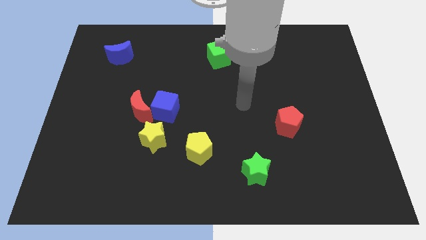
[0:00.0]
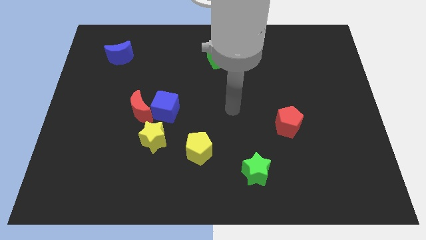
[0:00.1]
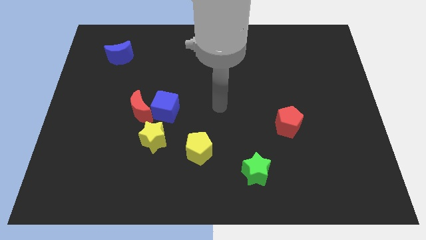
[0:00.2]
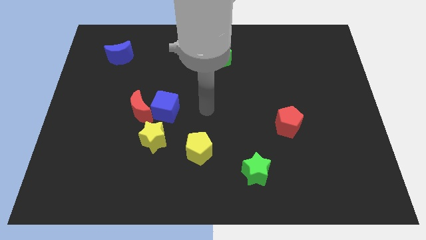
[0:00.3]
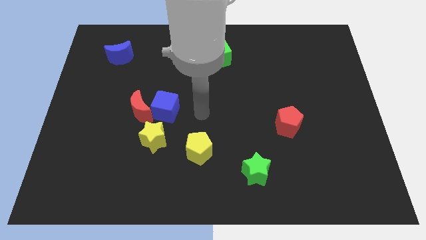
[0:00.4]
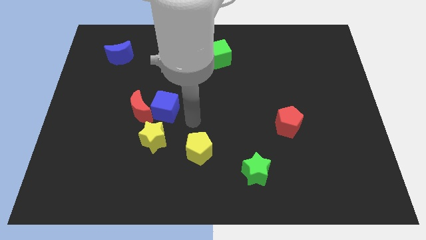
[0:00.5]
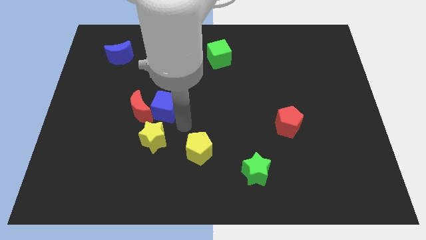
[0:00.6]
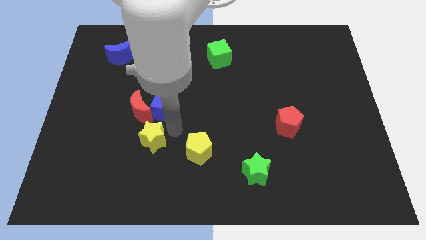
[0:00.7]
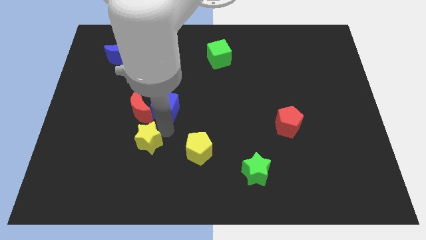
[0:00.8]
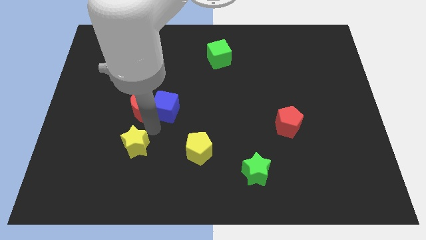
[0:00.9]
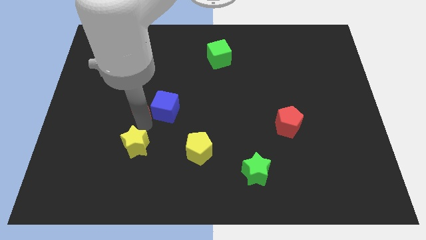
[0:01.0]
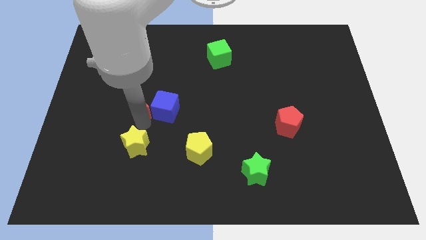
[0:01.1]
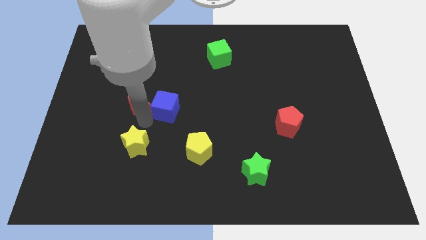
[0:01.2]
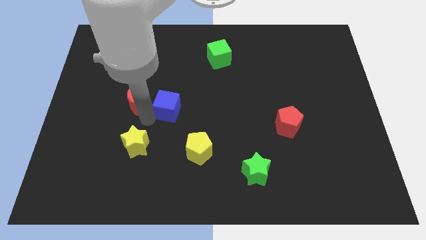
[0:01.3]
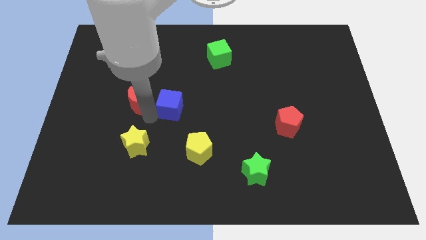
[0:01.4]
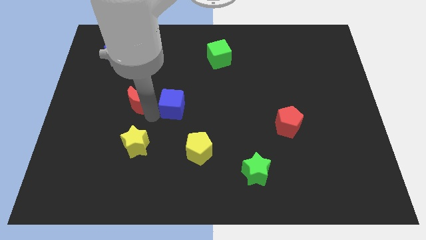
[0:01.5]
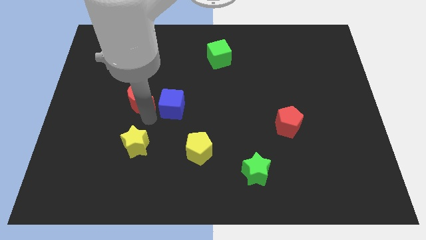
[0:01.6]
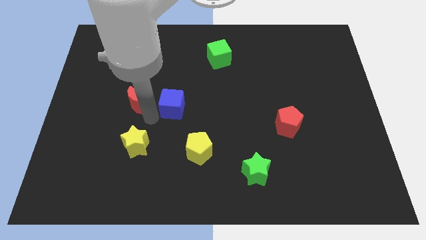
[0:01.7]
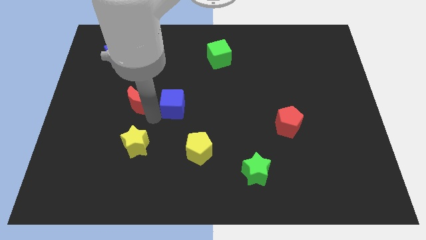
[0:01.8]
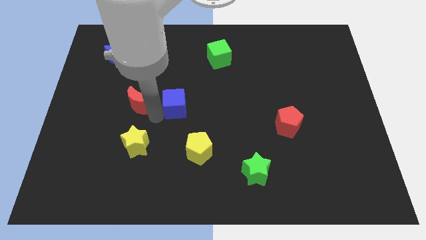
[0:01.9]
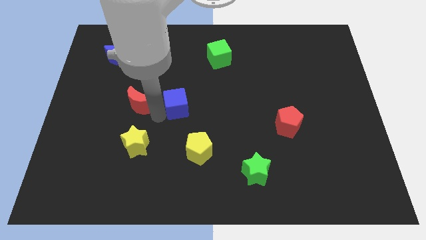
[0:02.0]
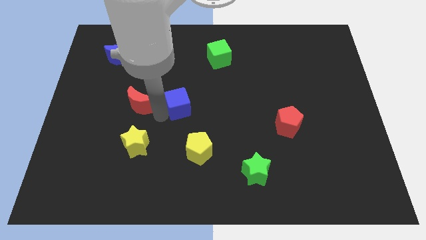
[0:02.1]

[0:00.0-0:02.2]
move the blue cube away from the red moon and yellow star

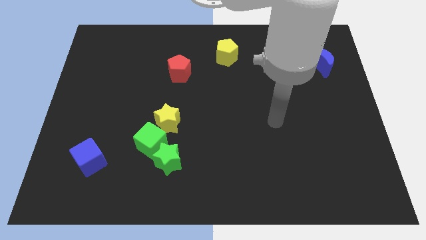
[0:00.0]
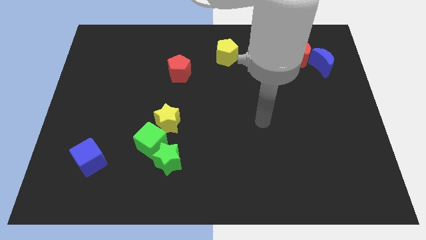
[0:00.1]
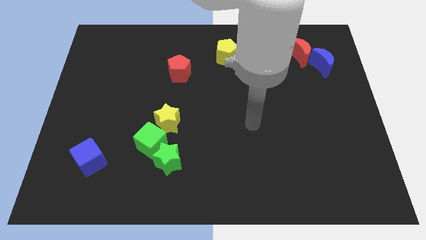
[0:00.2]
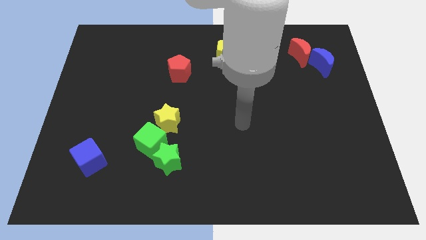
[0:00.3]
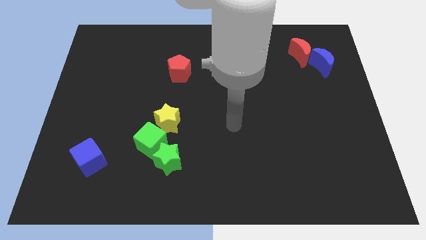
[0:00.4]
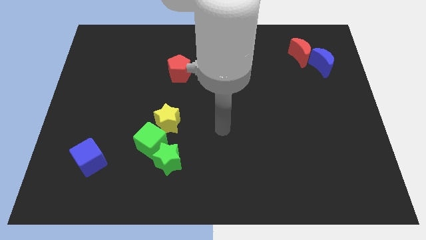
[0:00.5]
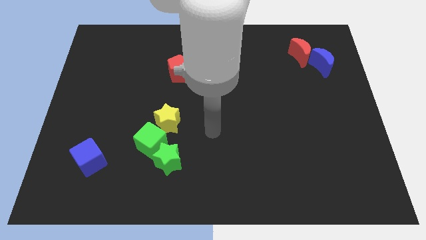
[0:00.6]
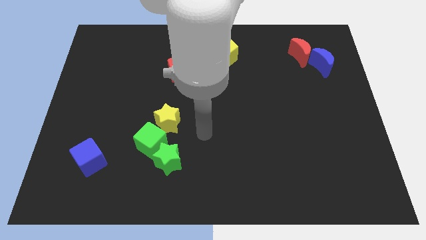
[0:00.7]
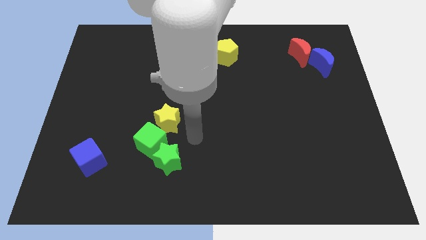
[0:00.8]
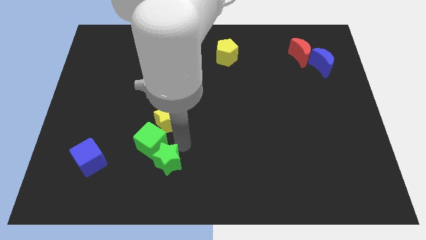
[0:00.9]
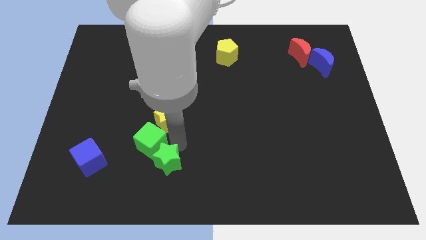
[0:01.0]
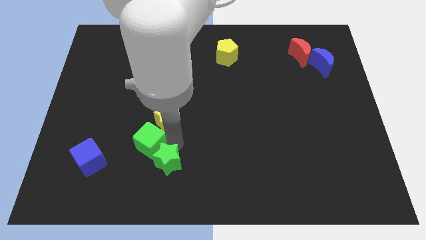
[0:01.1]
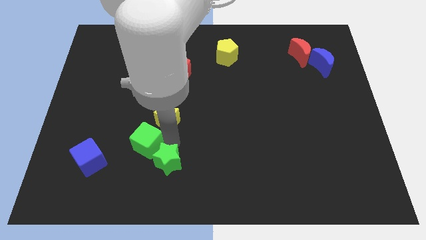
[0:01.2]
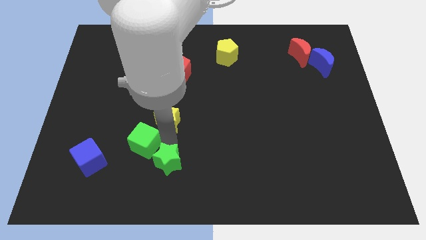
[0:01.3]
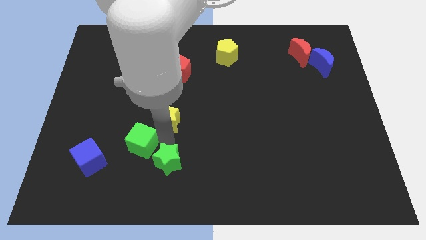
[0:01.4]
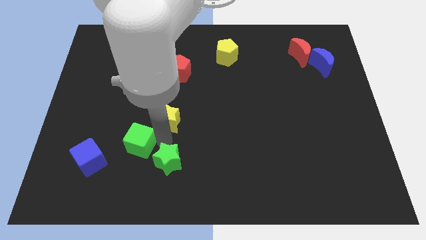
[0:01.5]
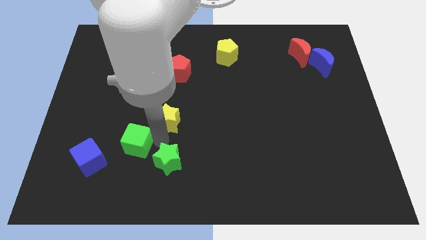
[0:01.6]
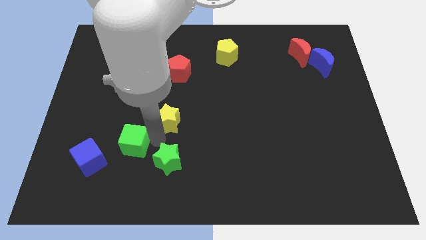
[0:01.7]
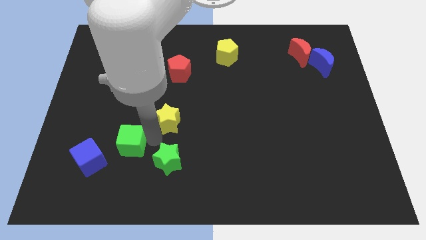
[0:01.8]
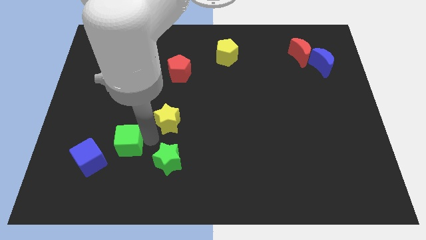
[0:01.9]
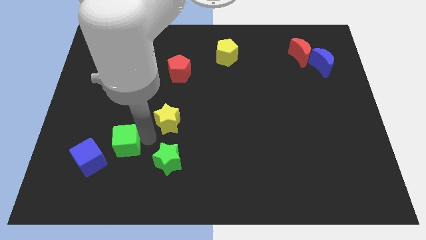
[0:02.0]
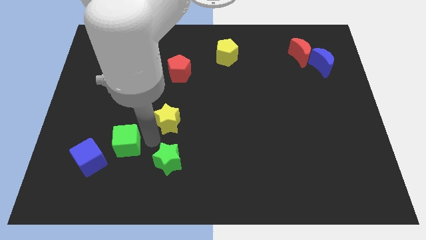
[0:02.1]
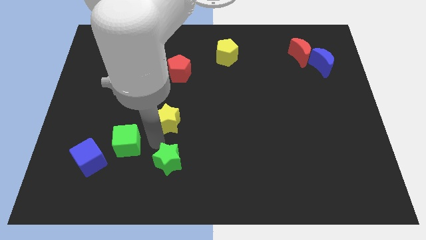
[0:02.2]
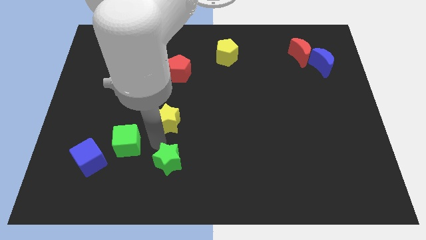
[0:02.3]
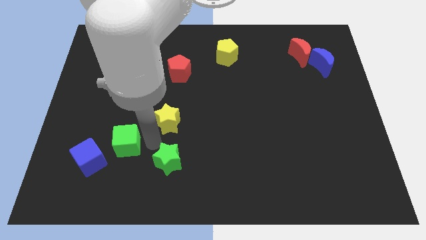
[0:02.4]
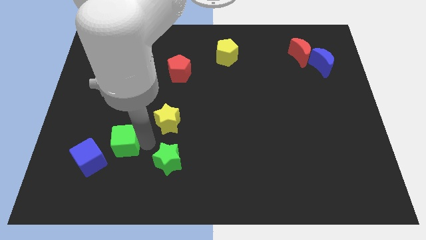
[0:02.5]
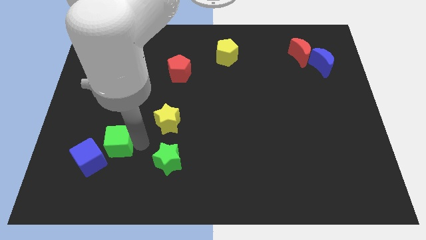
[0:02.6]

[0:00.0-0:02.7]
separate the green cube from the green star and yellow star

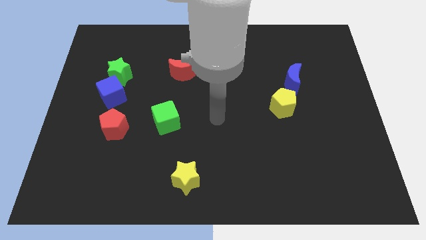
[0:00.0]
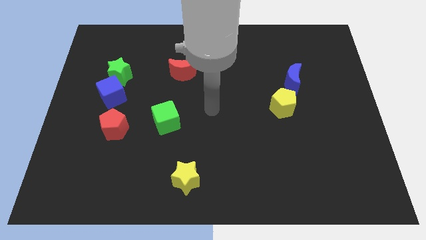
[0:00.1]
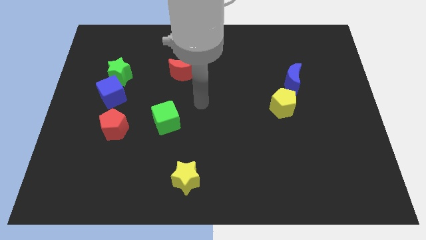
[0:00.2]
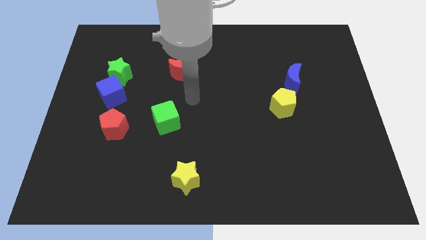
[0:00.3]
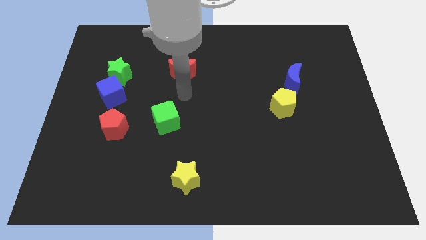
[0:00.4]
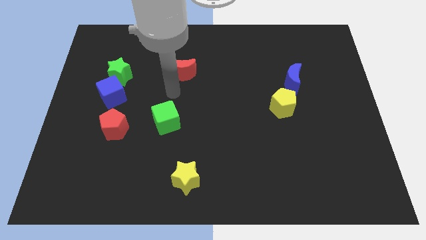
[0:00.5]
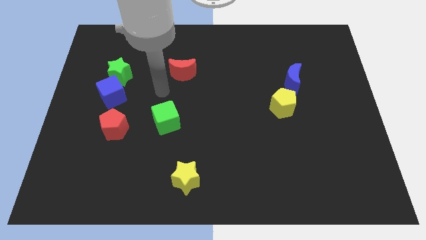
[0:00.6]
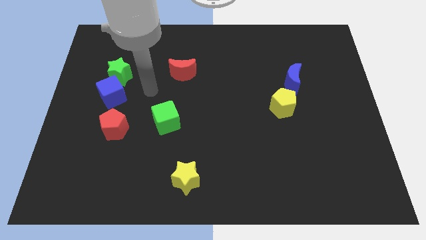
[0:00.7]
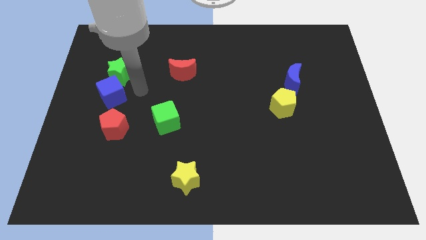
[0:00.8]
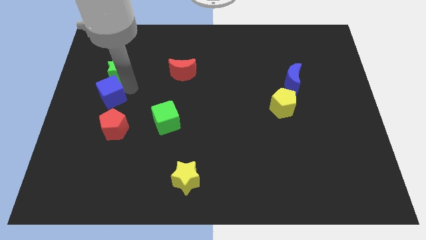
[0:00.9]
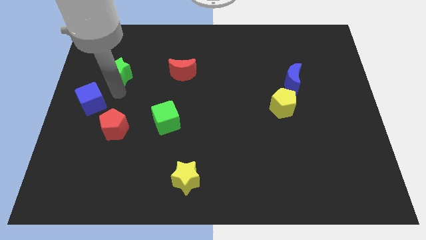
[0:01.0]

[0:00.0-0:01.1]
move the green star away from the blue cube

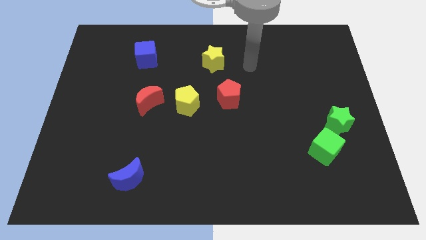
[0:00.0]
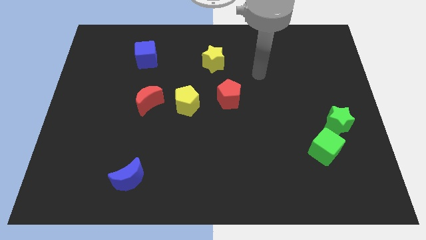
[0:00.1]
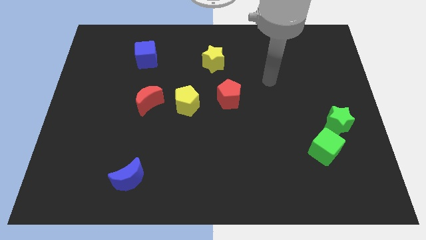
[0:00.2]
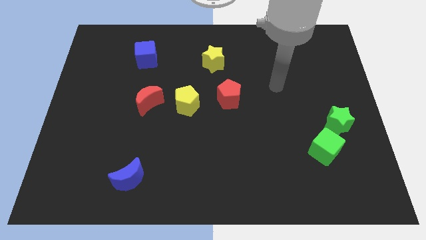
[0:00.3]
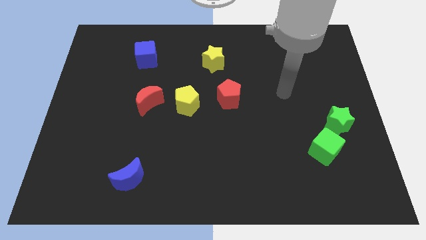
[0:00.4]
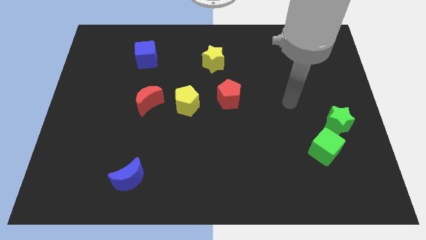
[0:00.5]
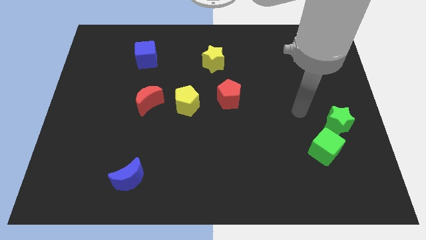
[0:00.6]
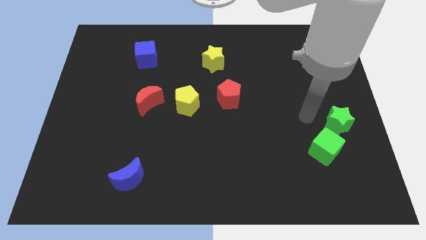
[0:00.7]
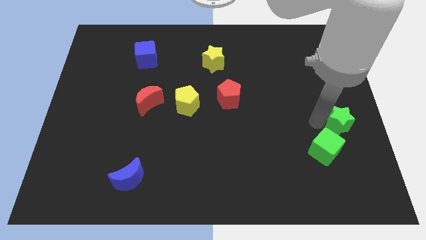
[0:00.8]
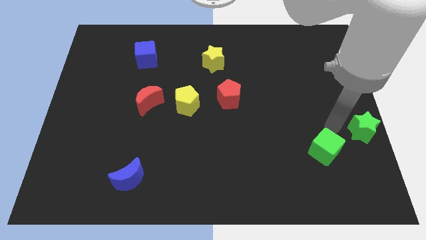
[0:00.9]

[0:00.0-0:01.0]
move the green cube away from the green star

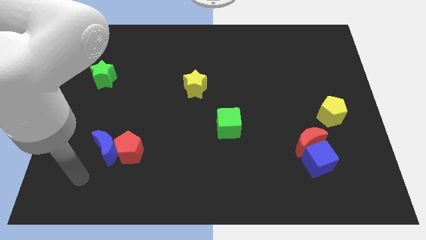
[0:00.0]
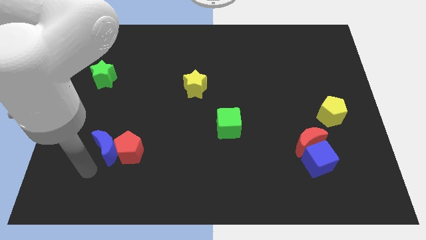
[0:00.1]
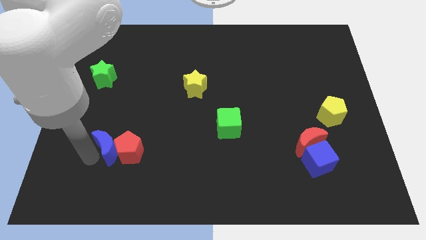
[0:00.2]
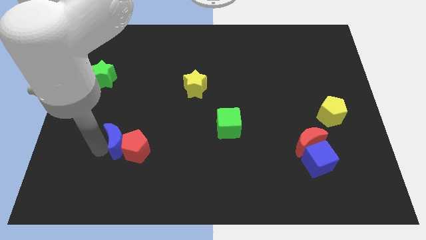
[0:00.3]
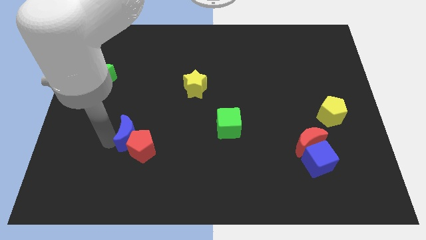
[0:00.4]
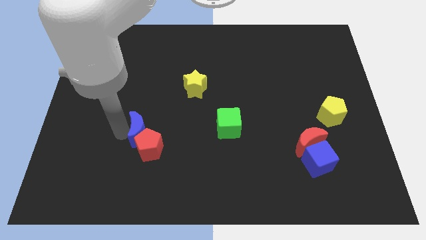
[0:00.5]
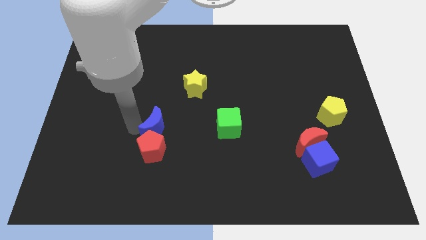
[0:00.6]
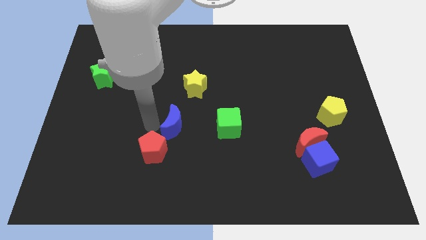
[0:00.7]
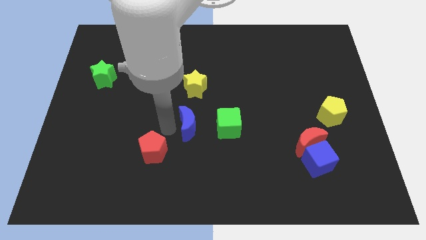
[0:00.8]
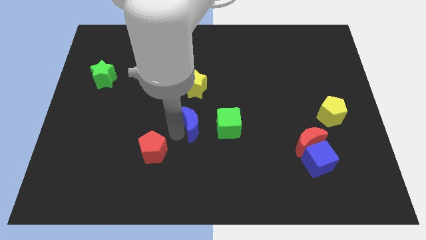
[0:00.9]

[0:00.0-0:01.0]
separate the red pentagon from the blue moon

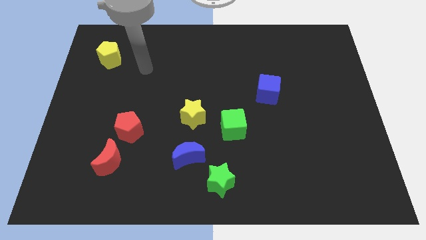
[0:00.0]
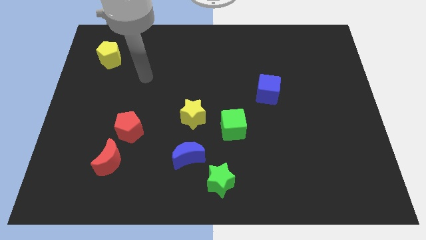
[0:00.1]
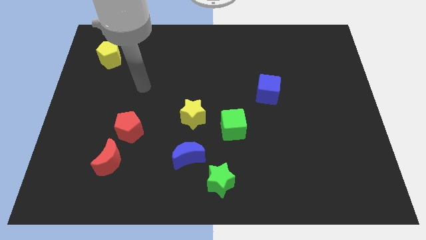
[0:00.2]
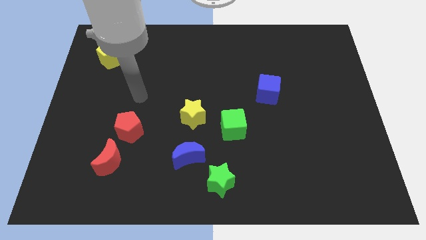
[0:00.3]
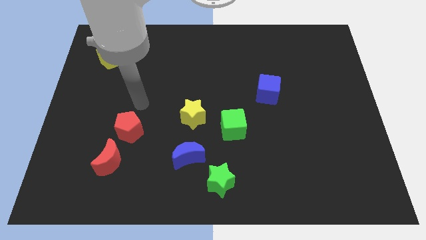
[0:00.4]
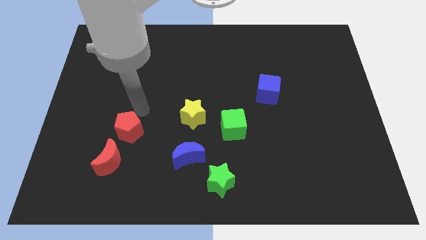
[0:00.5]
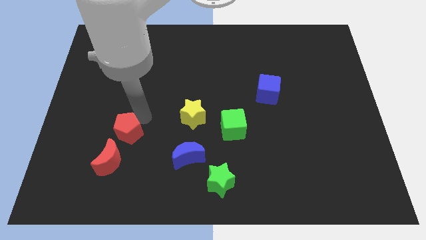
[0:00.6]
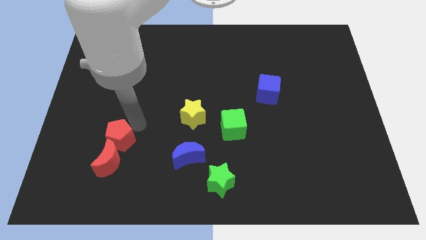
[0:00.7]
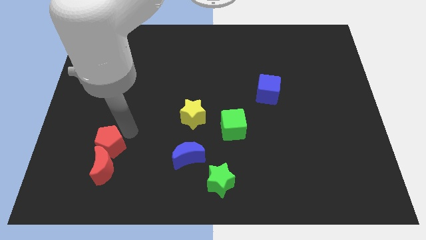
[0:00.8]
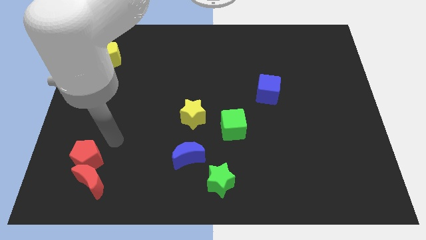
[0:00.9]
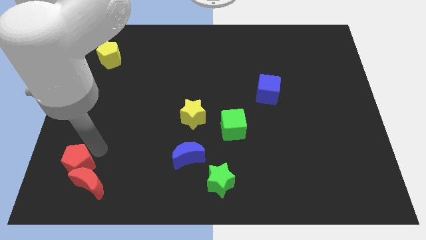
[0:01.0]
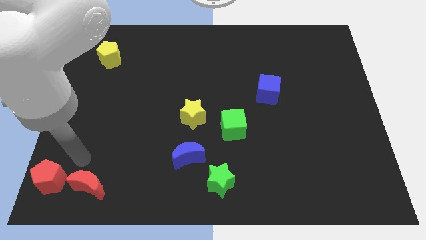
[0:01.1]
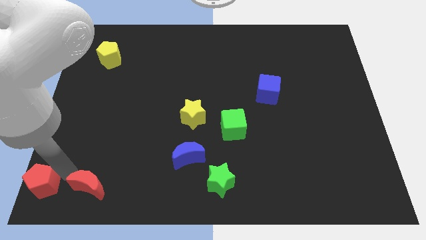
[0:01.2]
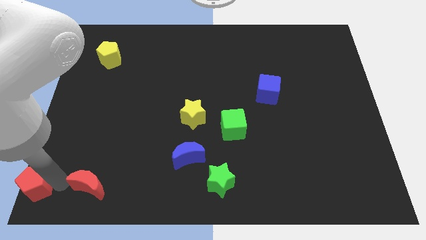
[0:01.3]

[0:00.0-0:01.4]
pull the red moon apart from the red pentagon
